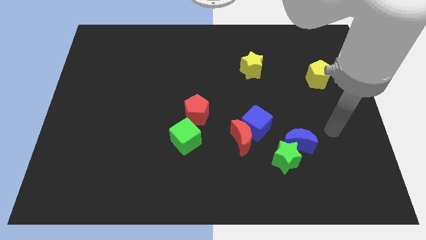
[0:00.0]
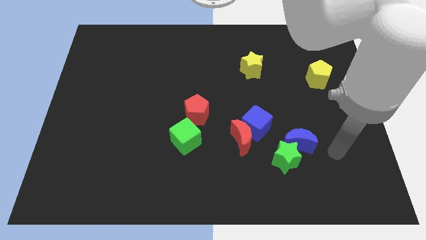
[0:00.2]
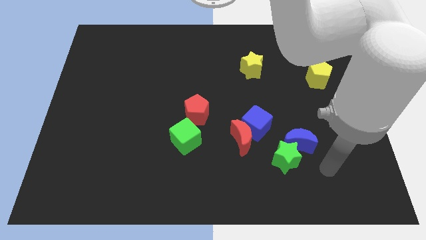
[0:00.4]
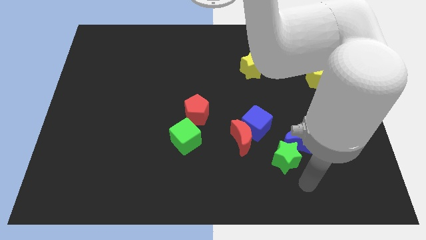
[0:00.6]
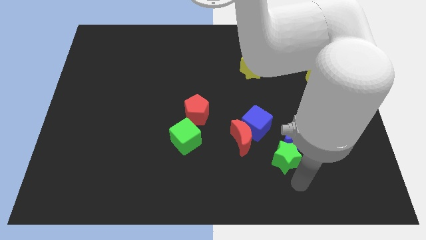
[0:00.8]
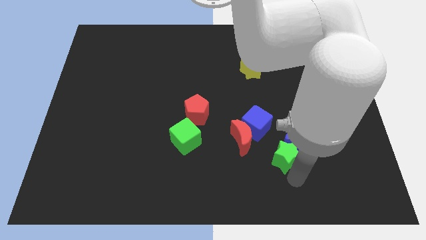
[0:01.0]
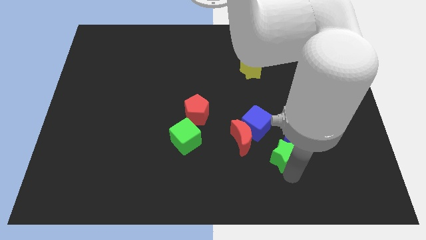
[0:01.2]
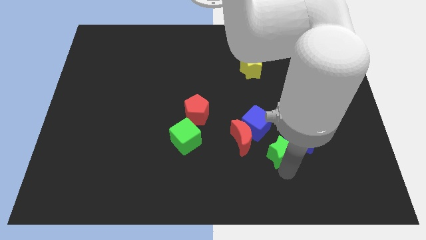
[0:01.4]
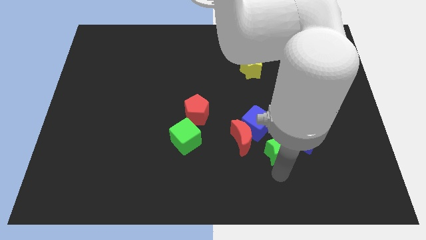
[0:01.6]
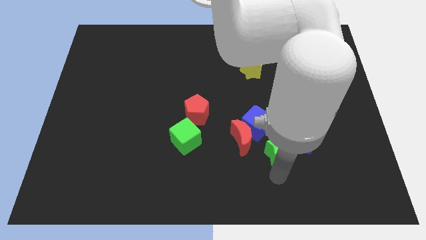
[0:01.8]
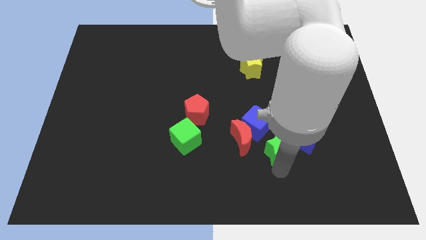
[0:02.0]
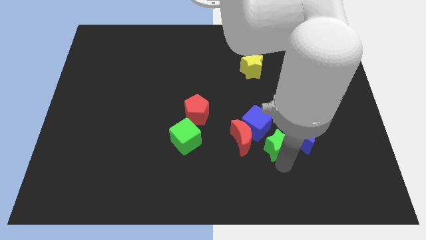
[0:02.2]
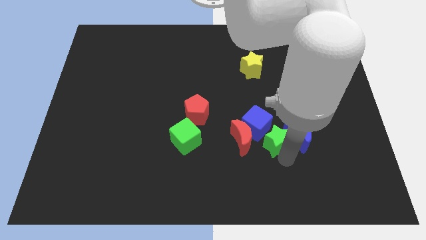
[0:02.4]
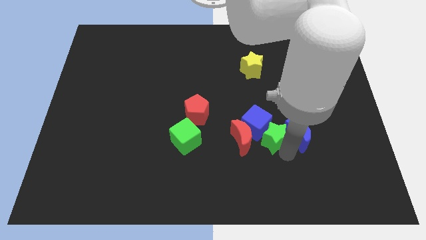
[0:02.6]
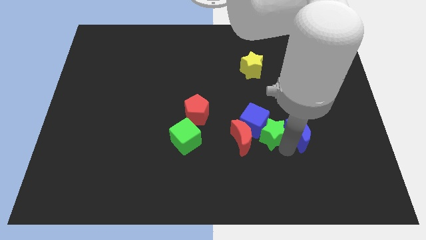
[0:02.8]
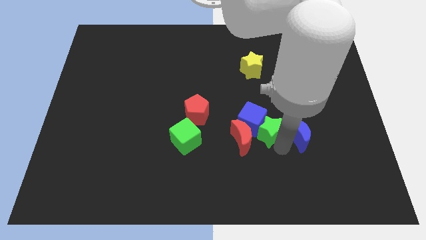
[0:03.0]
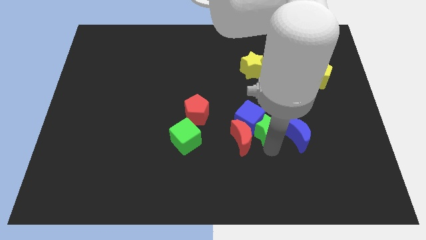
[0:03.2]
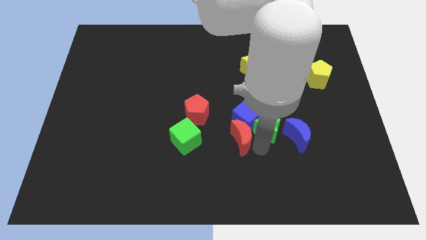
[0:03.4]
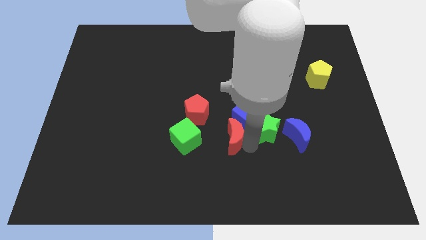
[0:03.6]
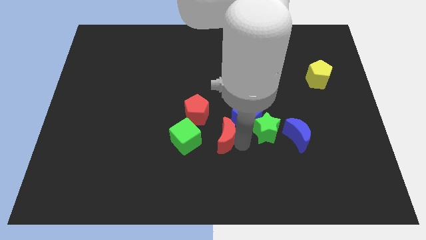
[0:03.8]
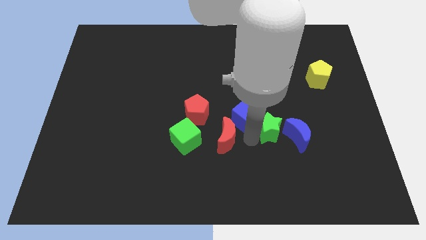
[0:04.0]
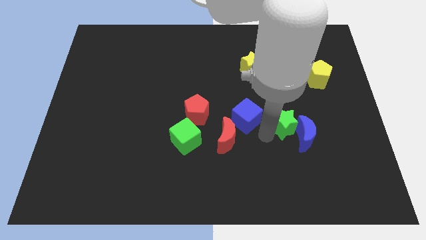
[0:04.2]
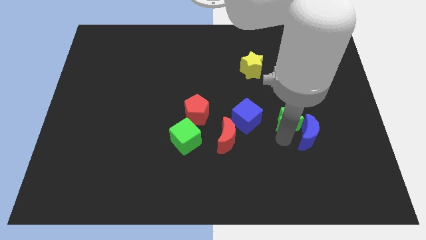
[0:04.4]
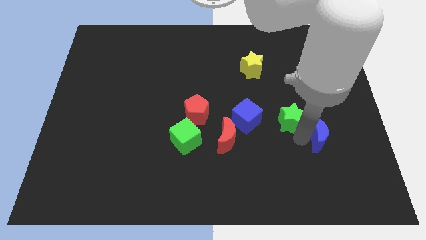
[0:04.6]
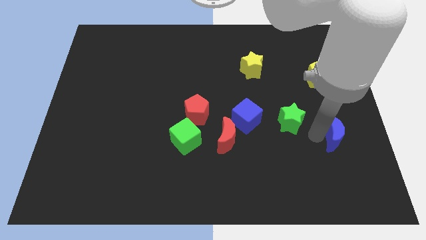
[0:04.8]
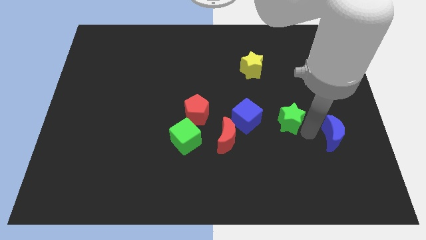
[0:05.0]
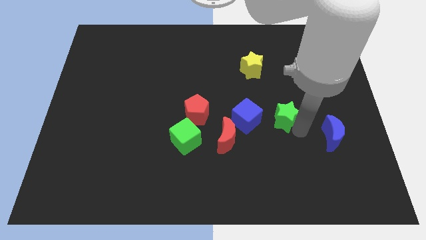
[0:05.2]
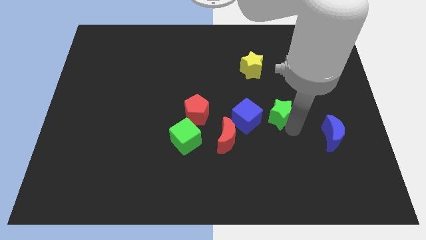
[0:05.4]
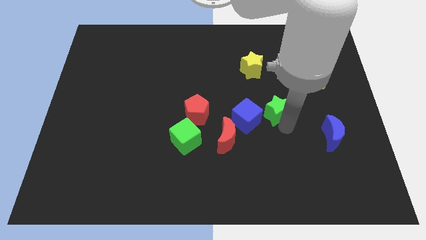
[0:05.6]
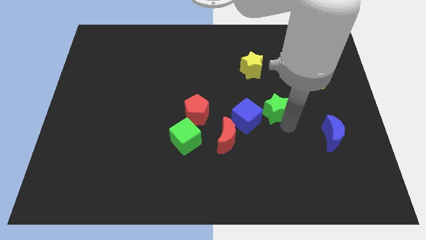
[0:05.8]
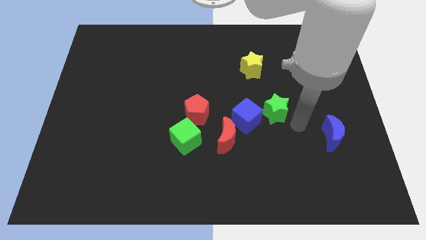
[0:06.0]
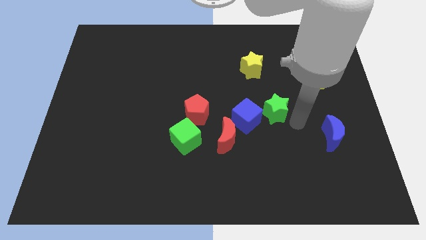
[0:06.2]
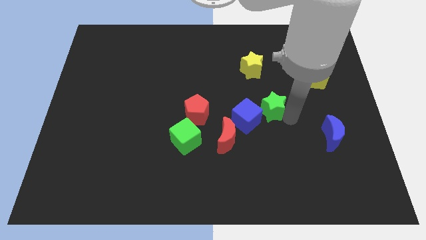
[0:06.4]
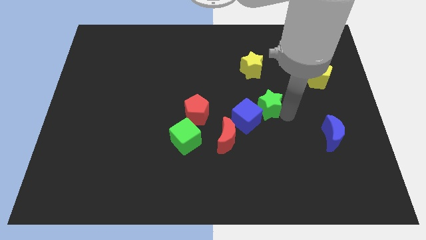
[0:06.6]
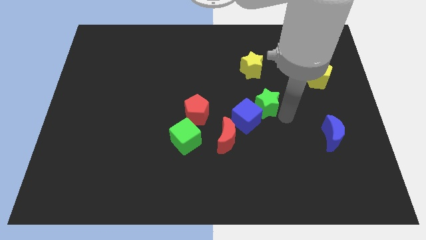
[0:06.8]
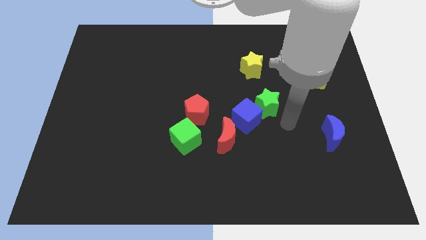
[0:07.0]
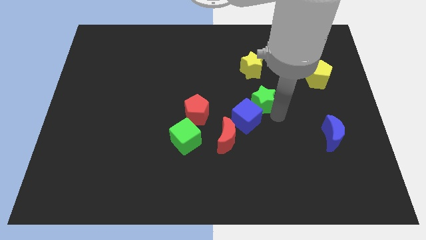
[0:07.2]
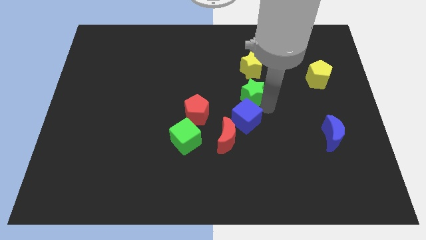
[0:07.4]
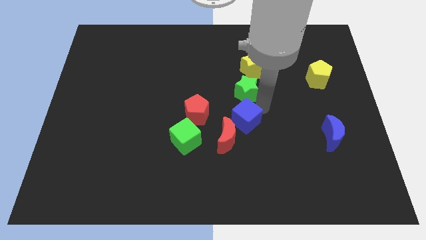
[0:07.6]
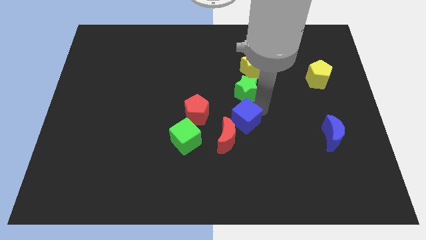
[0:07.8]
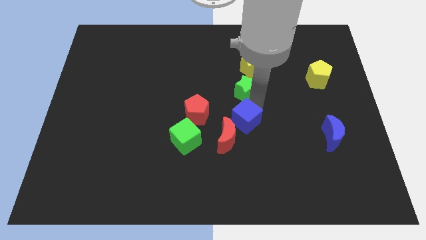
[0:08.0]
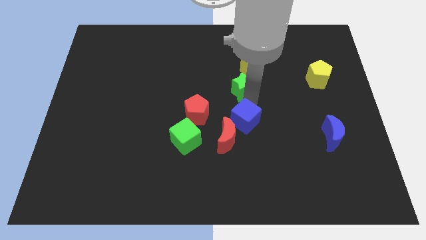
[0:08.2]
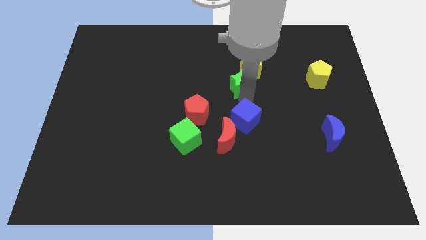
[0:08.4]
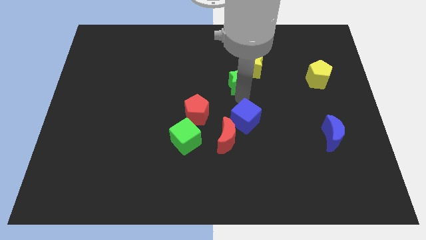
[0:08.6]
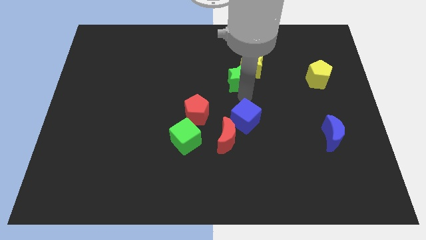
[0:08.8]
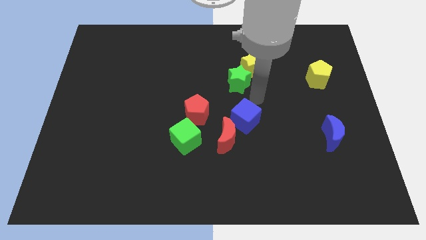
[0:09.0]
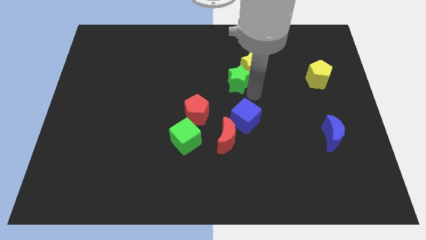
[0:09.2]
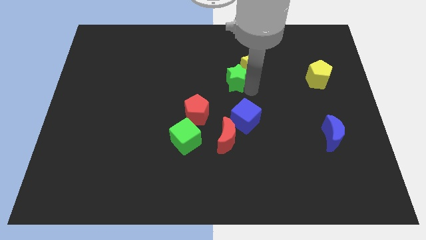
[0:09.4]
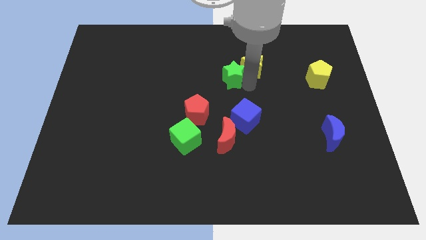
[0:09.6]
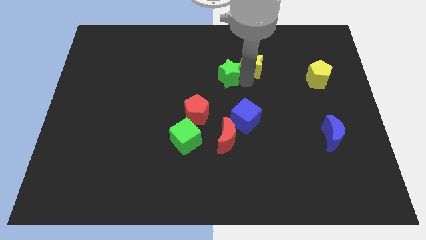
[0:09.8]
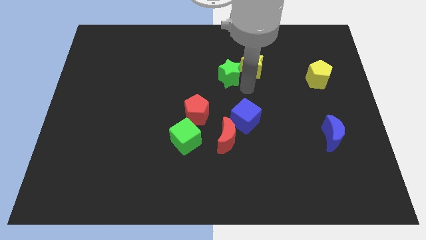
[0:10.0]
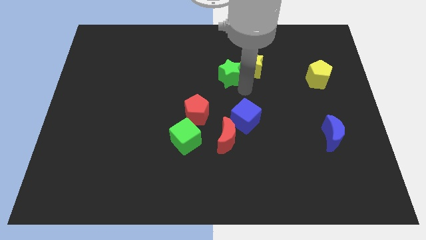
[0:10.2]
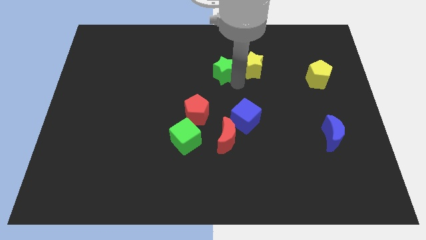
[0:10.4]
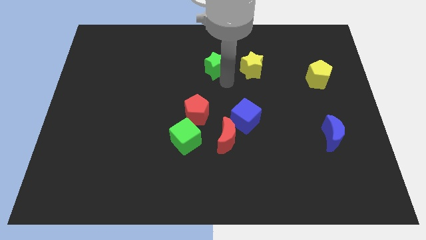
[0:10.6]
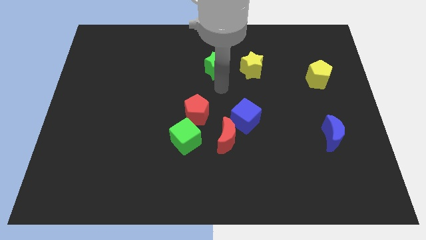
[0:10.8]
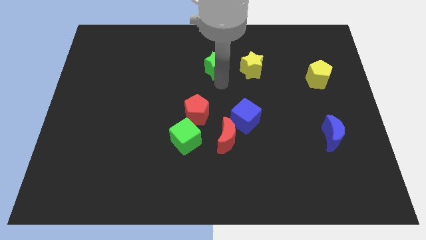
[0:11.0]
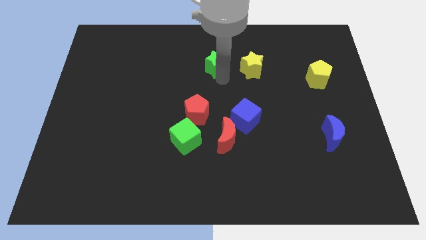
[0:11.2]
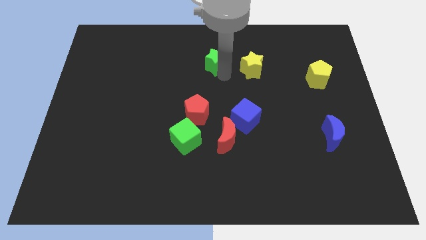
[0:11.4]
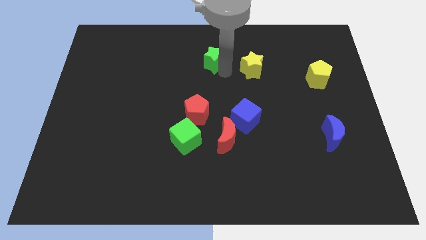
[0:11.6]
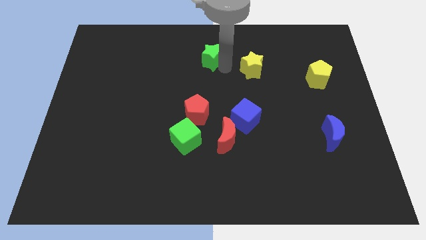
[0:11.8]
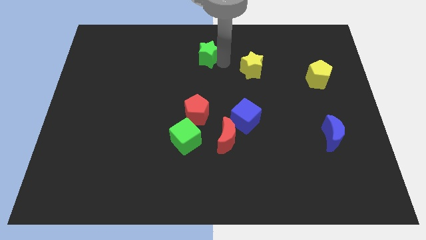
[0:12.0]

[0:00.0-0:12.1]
move the green star to the top side
